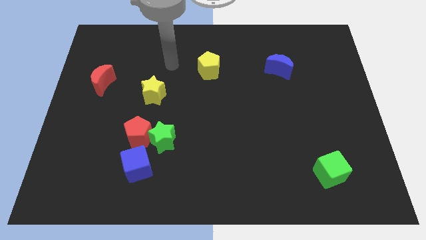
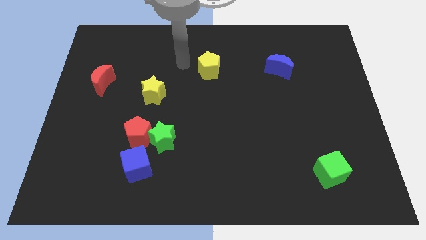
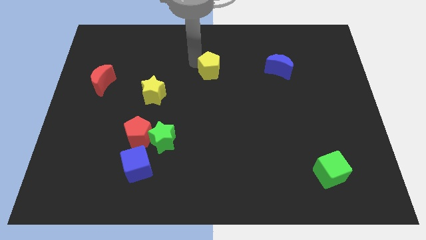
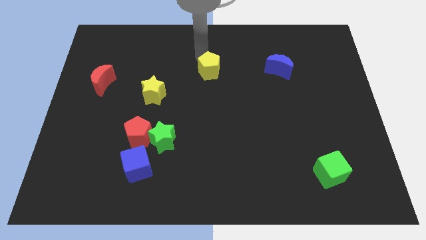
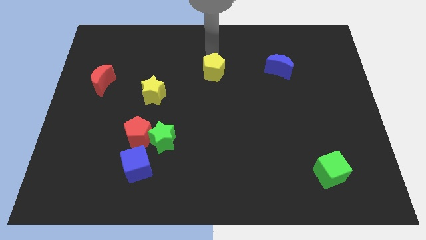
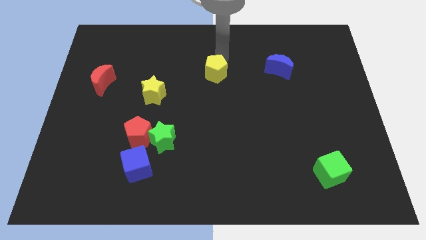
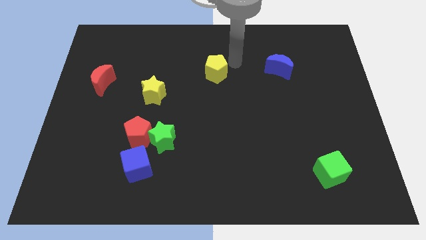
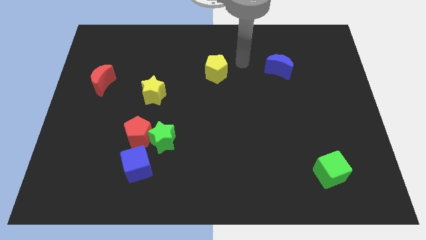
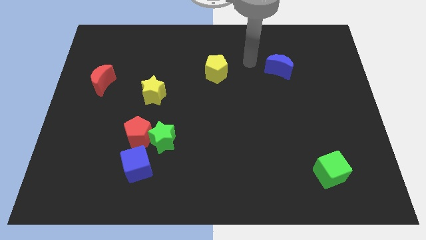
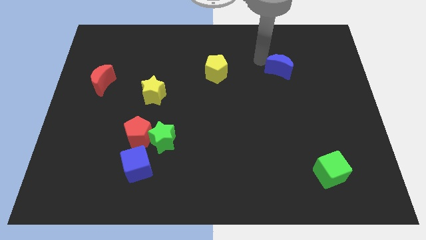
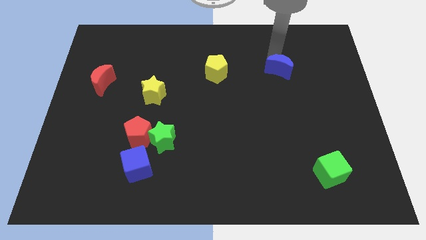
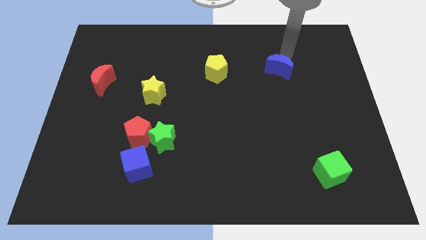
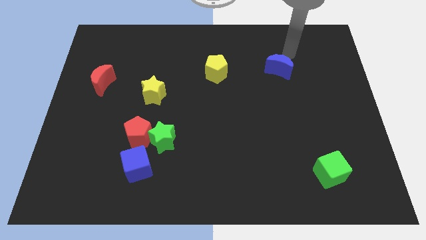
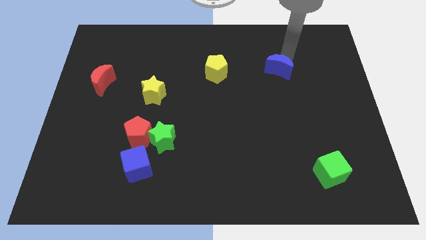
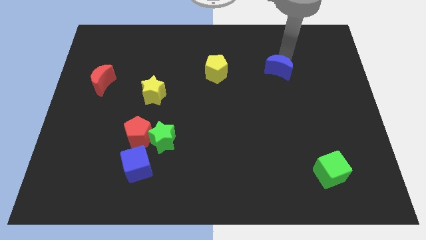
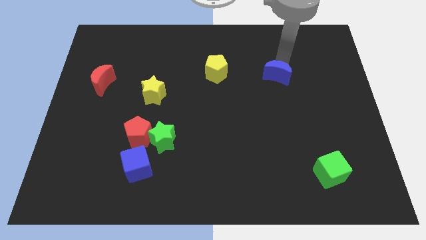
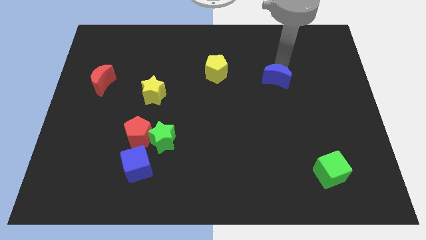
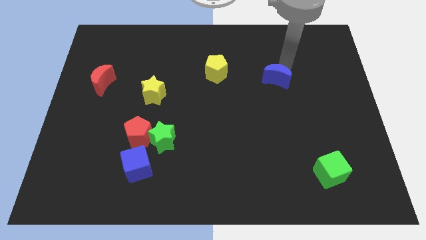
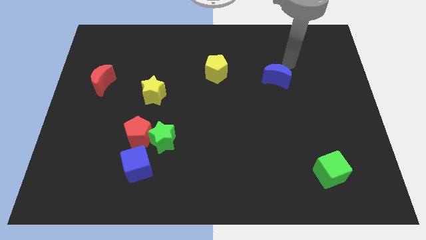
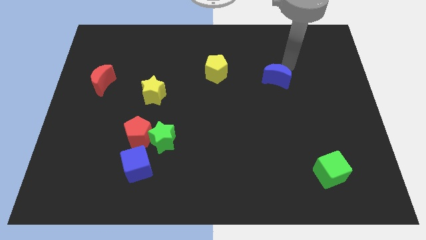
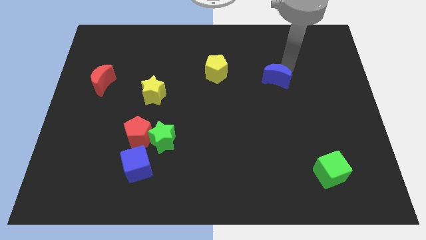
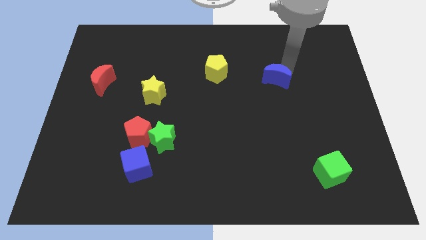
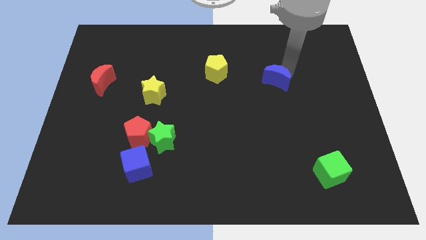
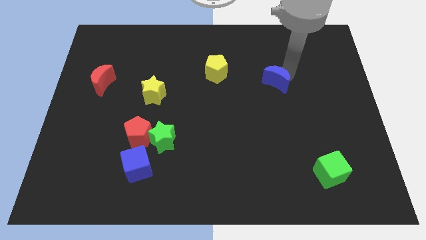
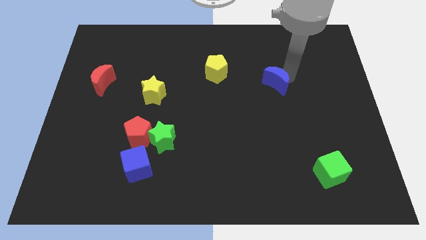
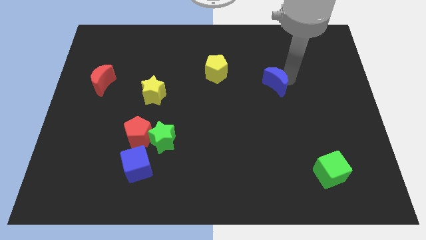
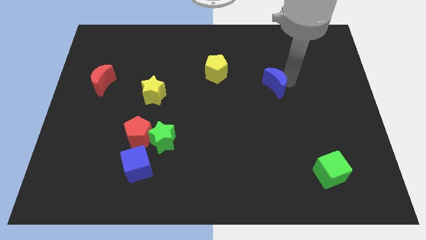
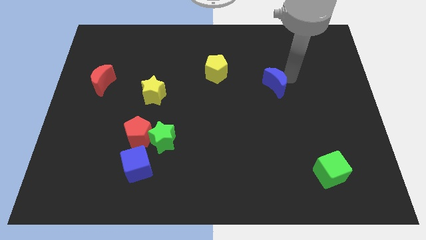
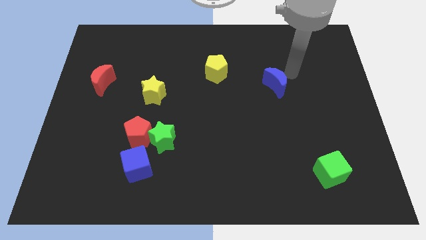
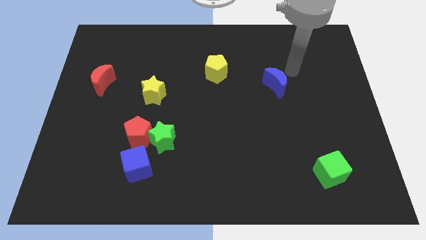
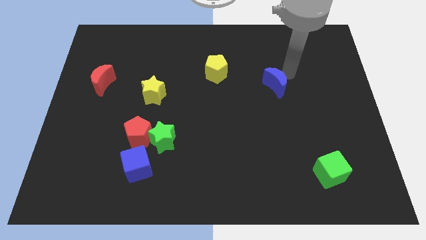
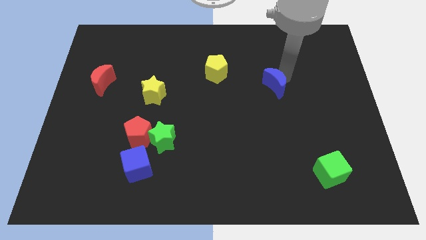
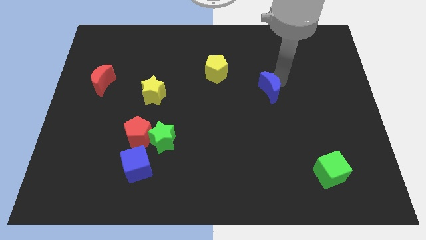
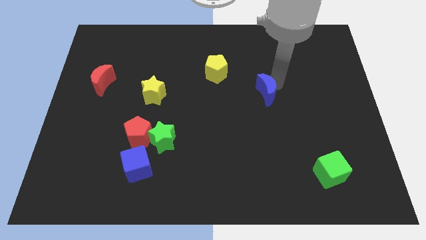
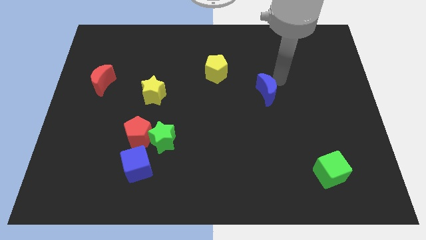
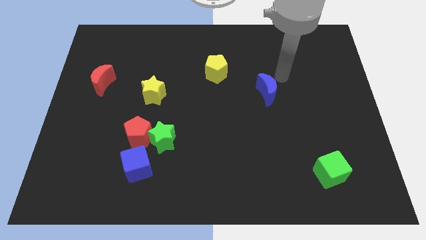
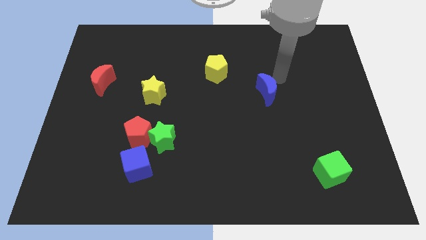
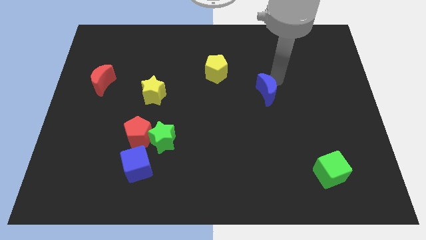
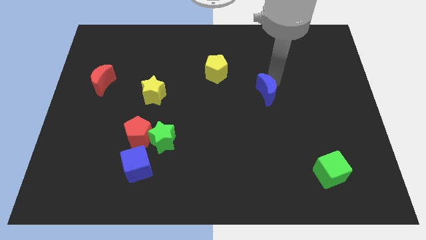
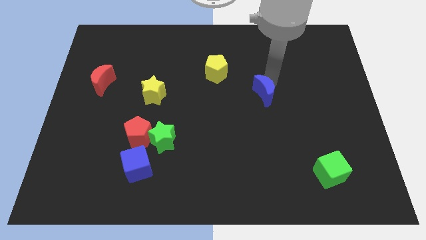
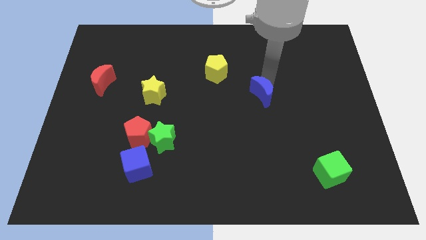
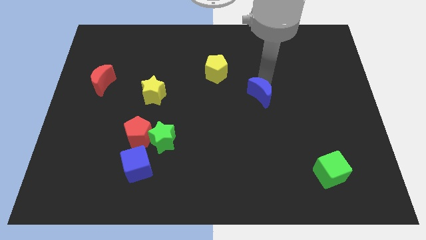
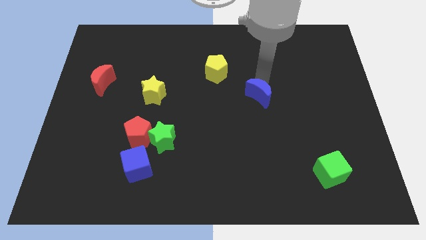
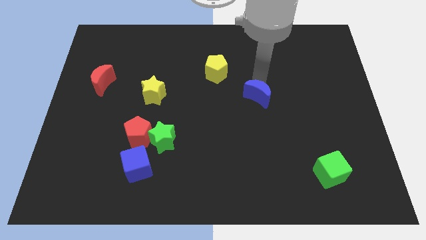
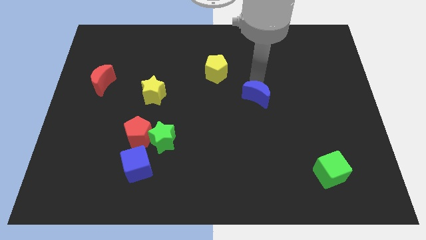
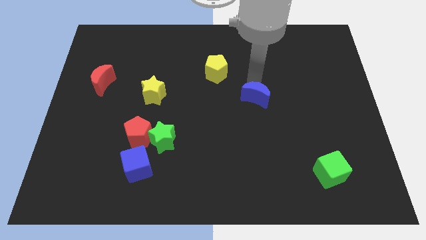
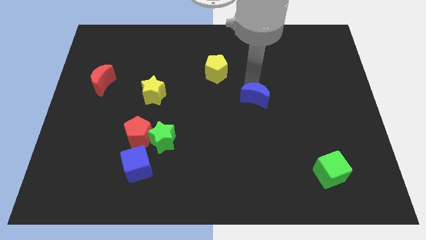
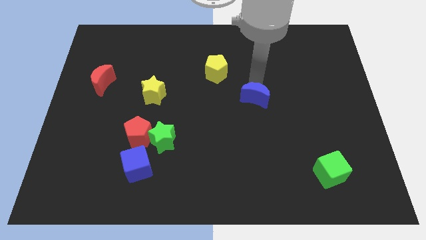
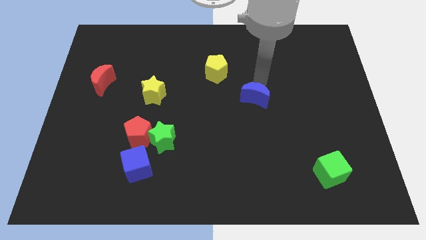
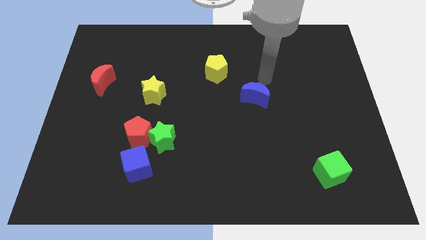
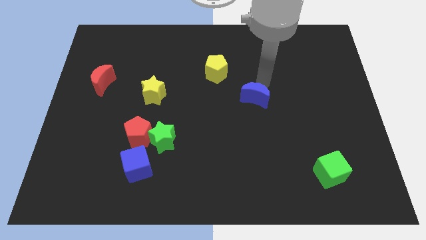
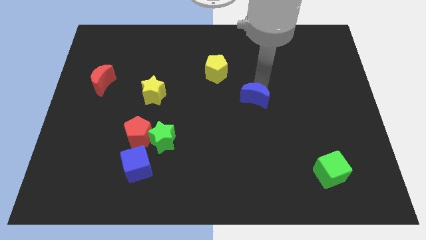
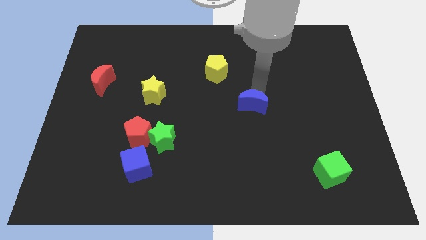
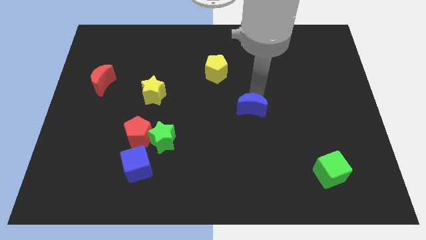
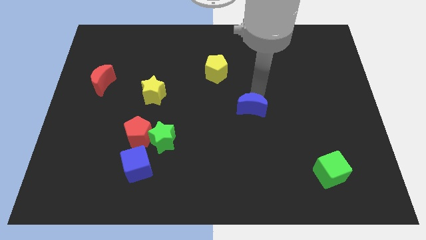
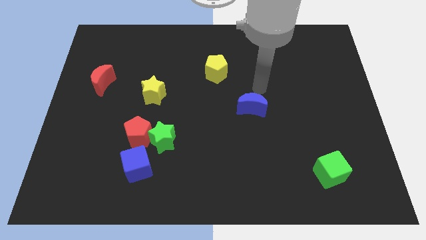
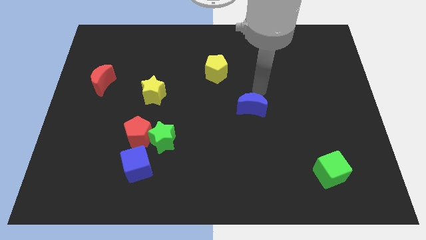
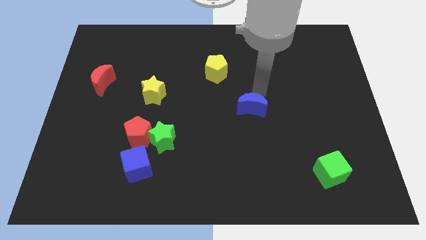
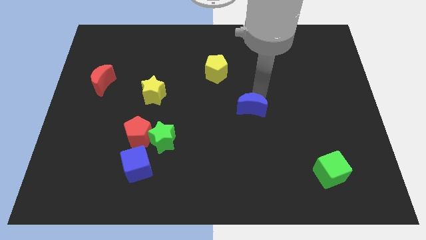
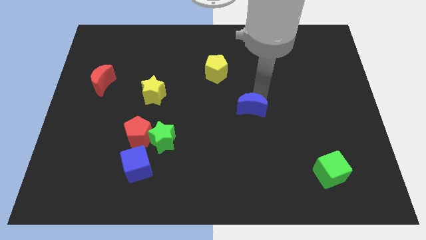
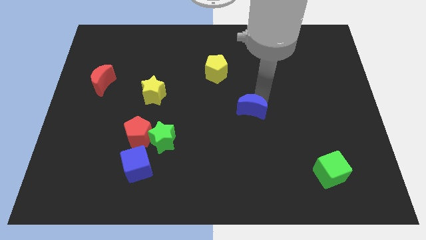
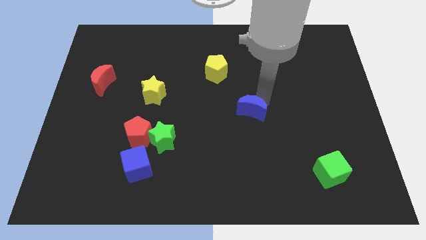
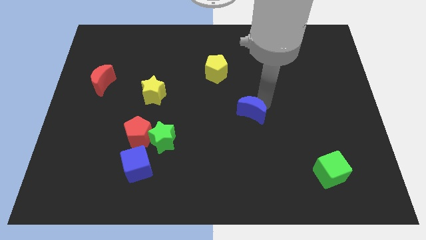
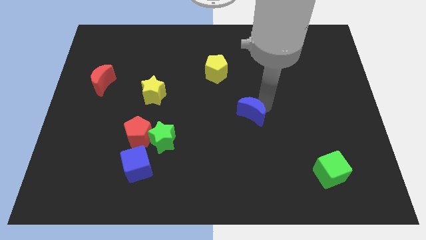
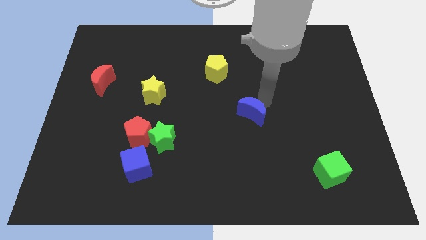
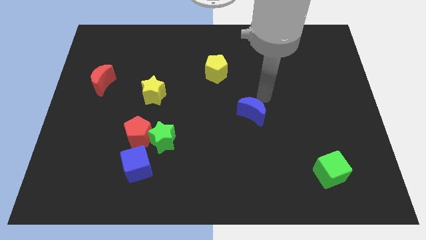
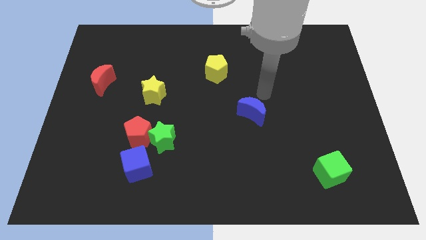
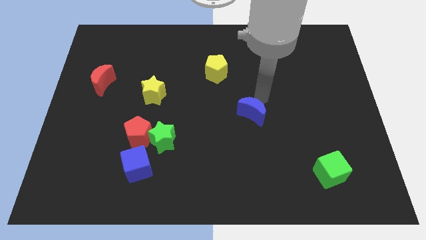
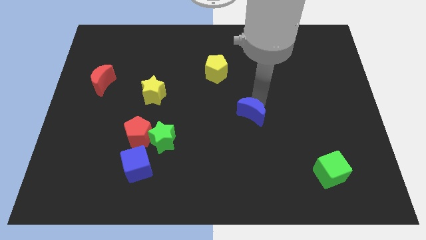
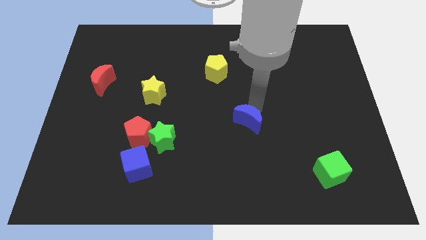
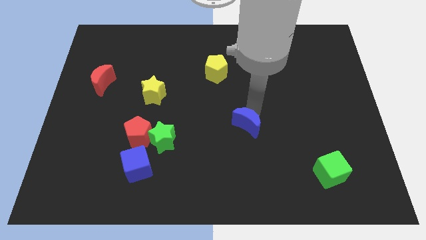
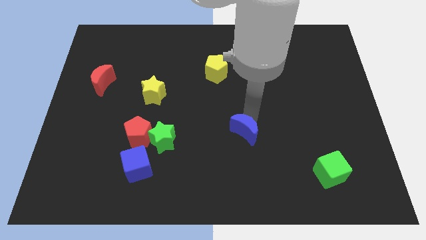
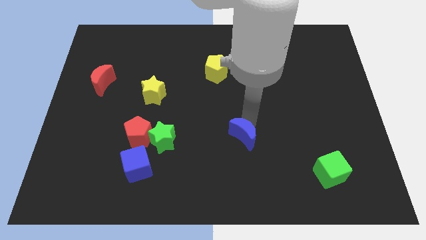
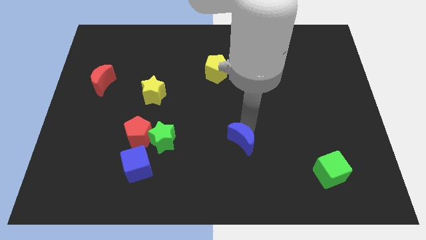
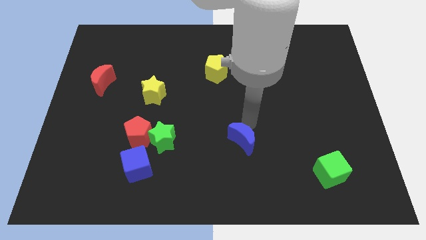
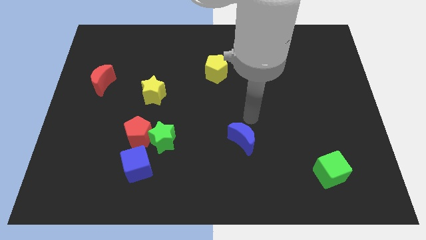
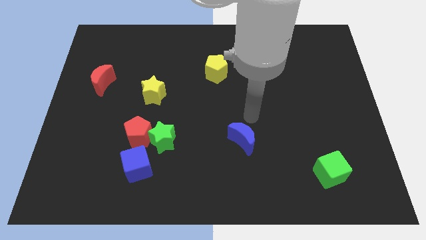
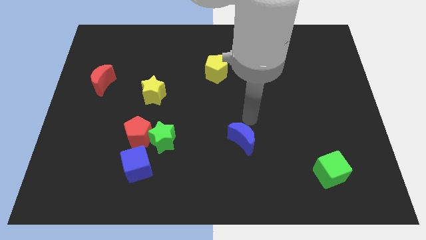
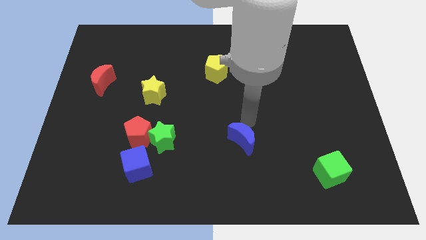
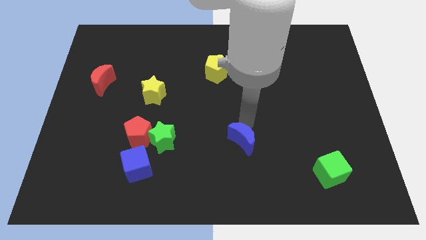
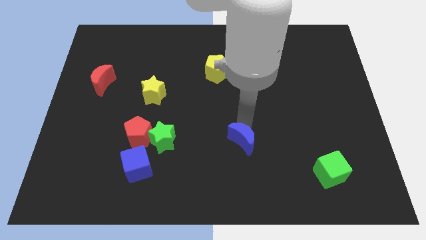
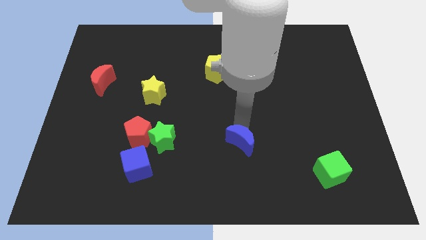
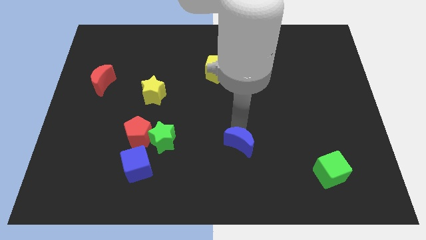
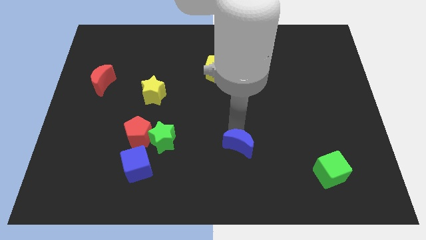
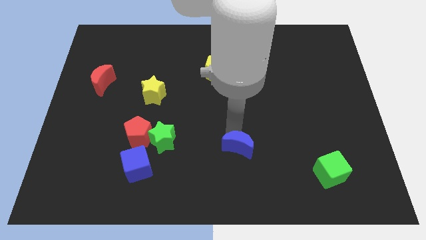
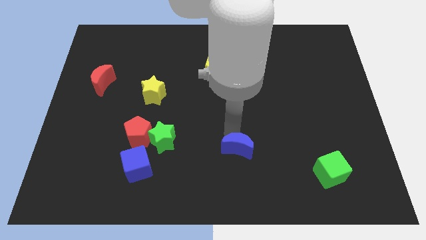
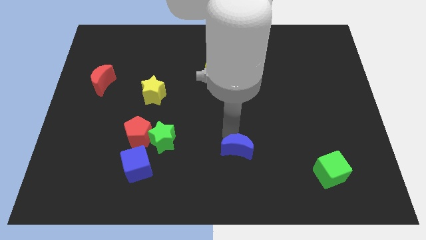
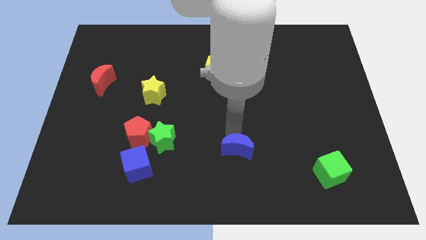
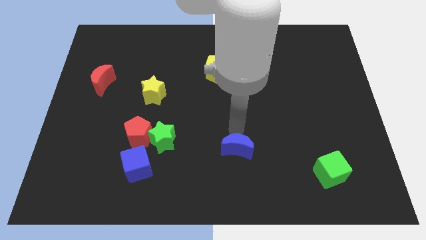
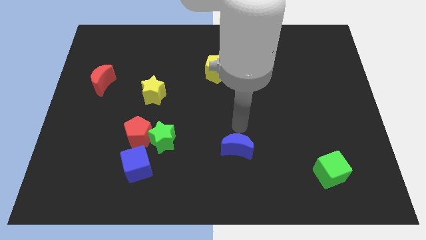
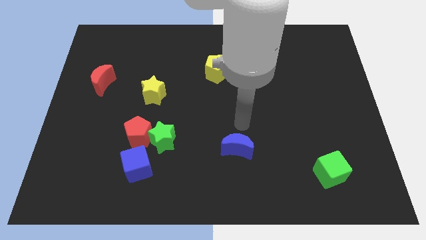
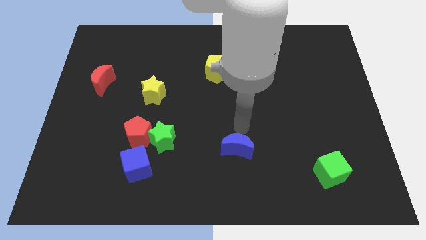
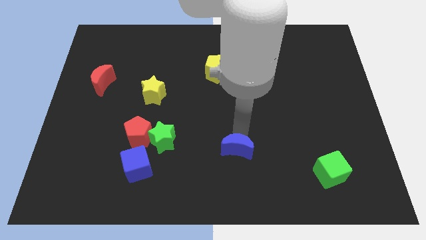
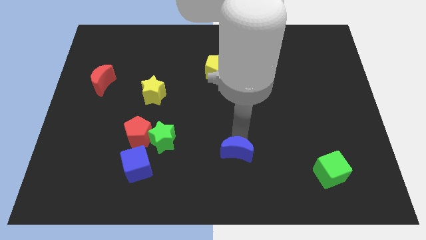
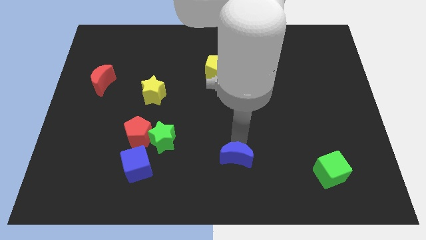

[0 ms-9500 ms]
put the blue moon to the bottom side
